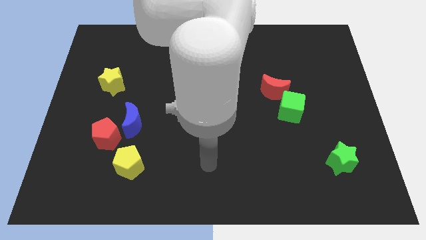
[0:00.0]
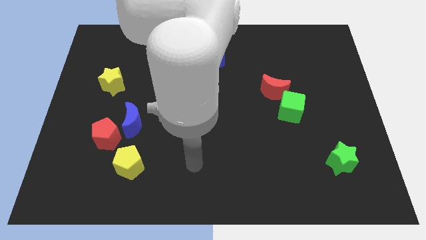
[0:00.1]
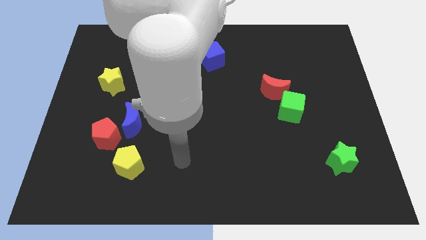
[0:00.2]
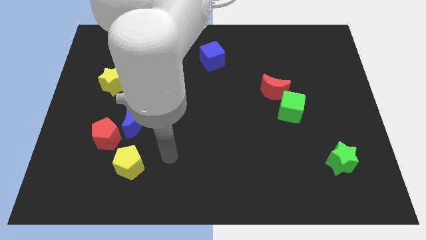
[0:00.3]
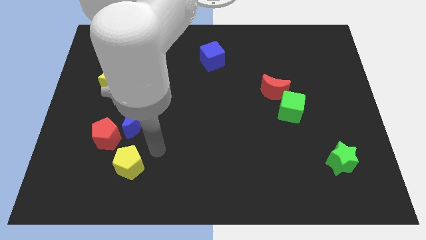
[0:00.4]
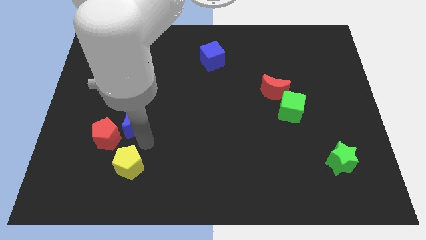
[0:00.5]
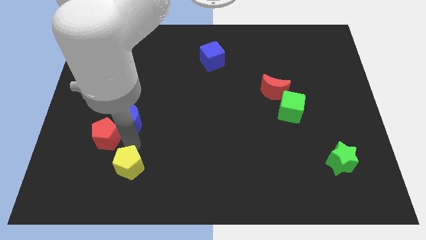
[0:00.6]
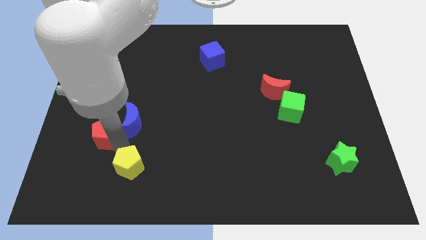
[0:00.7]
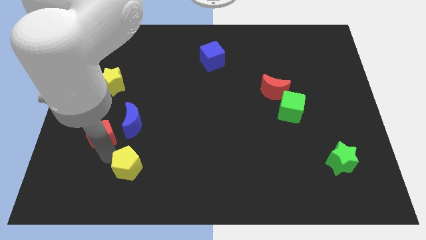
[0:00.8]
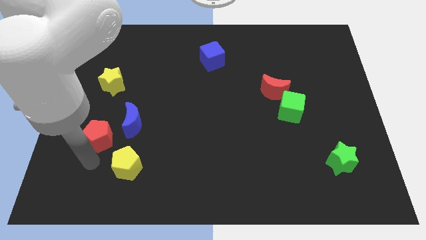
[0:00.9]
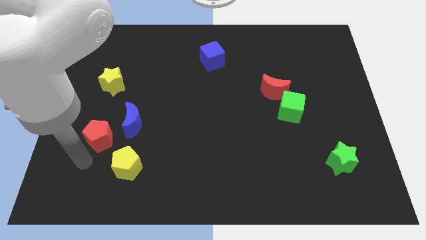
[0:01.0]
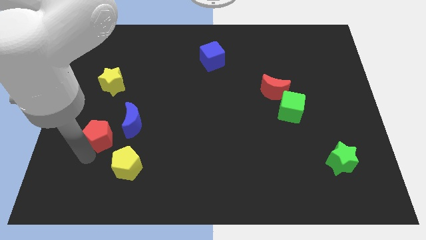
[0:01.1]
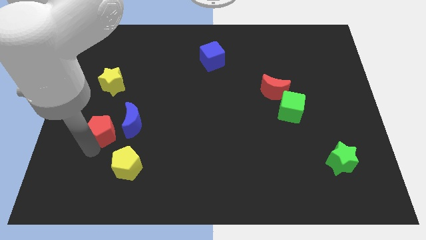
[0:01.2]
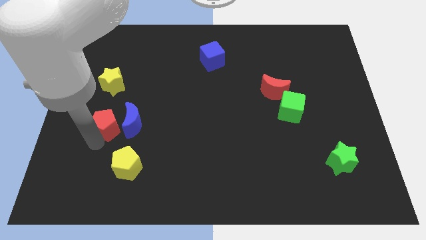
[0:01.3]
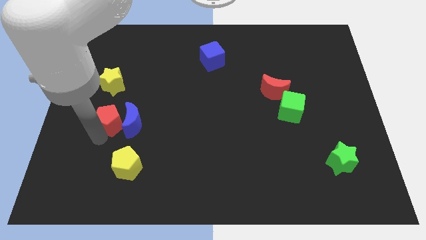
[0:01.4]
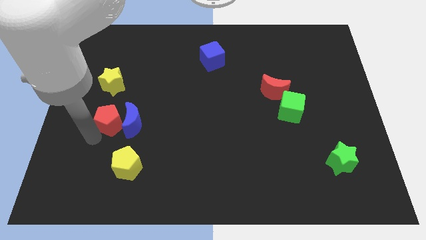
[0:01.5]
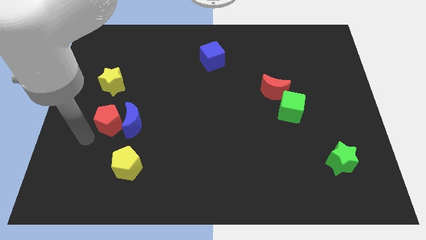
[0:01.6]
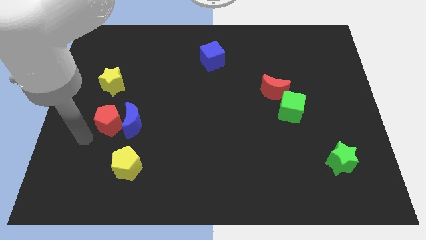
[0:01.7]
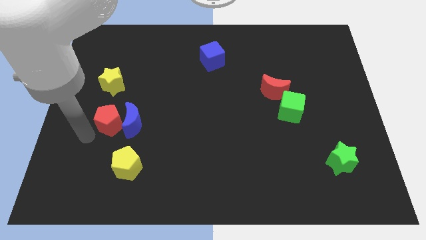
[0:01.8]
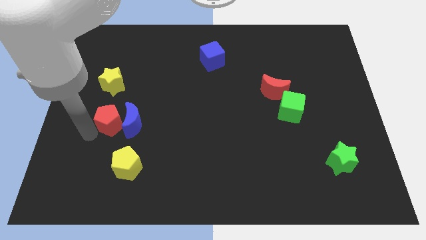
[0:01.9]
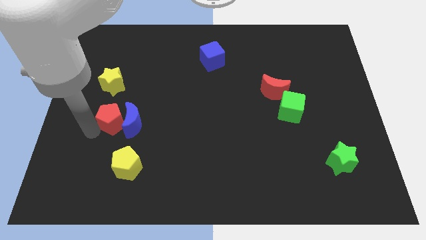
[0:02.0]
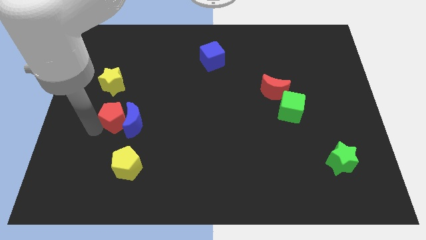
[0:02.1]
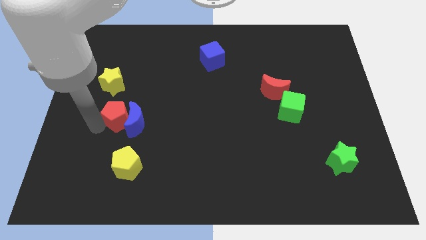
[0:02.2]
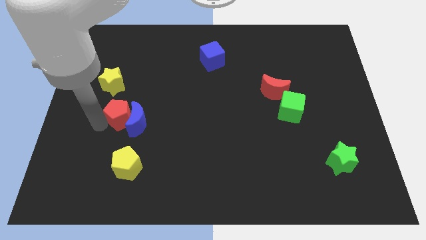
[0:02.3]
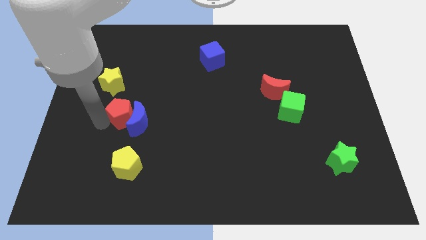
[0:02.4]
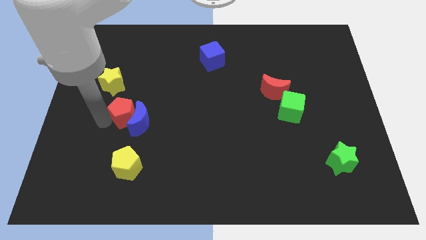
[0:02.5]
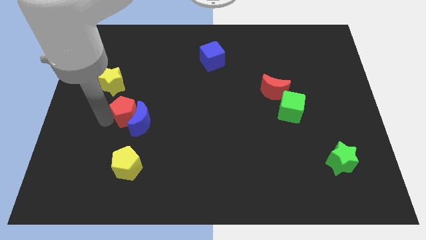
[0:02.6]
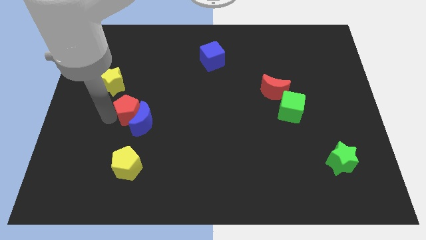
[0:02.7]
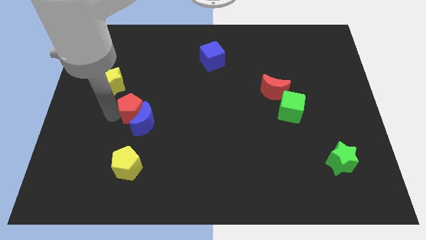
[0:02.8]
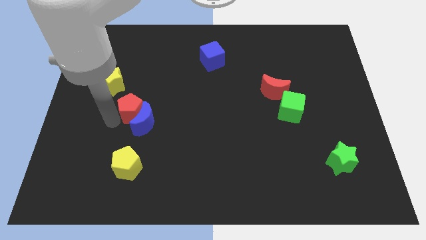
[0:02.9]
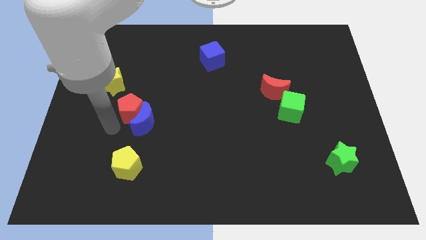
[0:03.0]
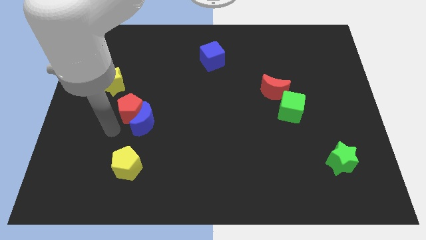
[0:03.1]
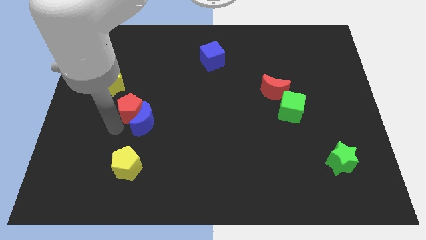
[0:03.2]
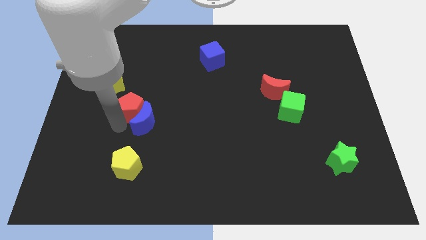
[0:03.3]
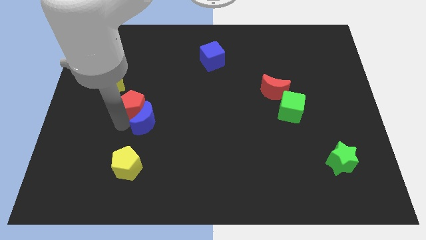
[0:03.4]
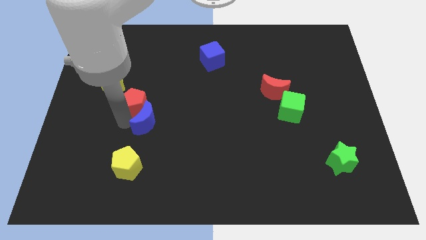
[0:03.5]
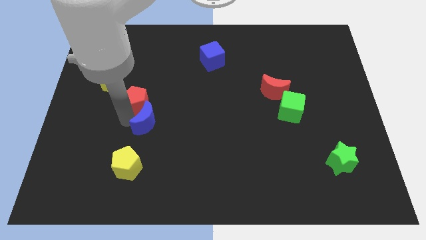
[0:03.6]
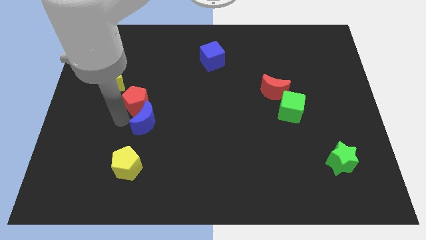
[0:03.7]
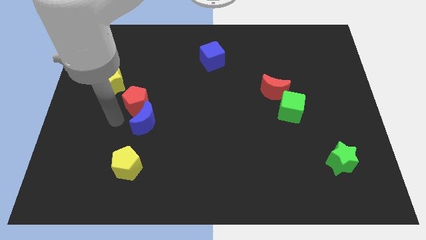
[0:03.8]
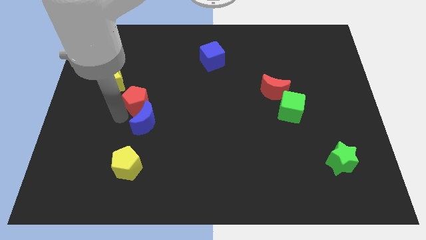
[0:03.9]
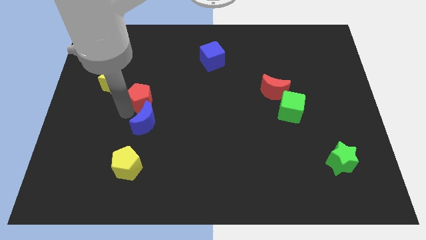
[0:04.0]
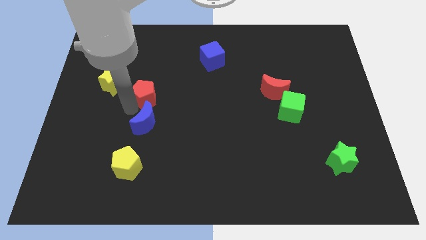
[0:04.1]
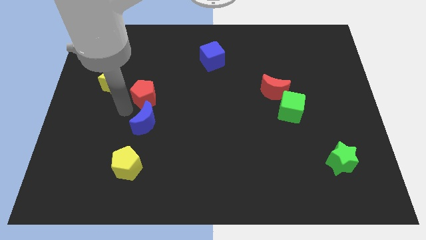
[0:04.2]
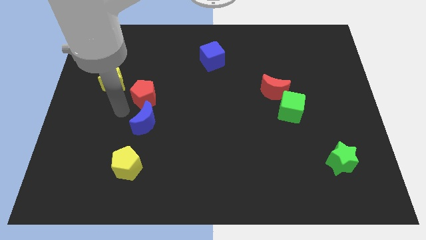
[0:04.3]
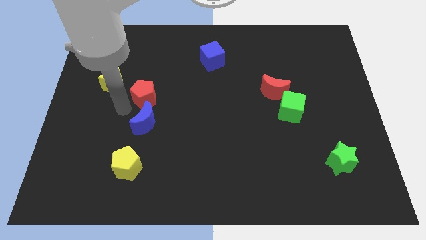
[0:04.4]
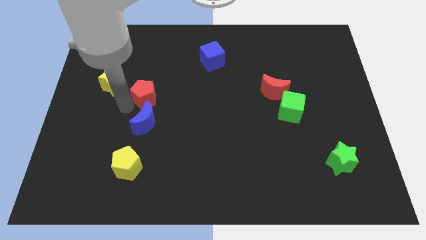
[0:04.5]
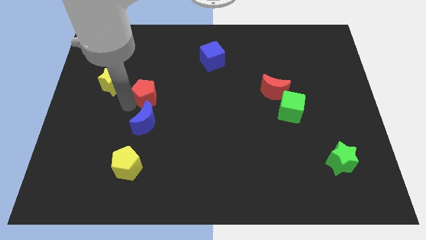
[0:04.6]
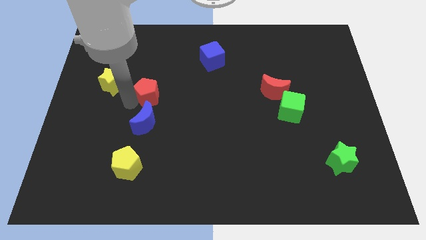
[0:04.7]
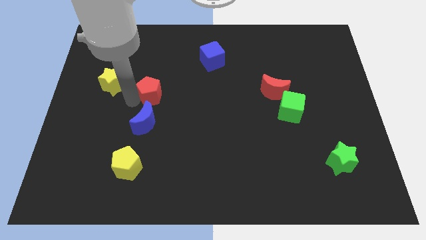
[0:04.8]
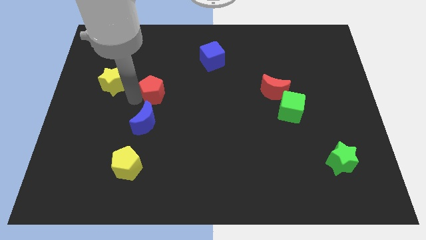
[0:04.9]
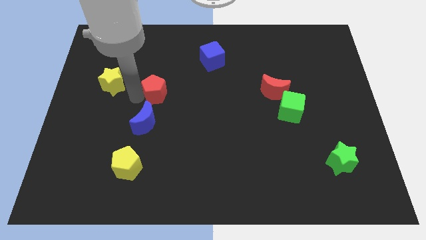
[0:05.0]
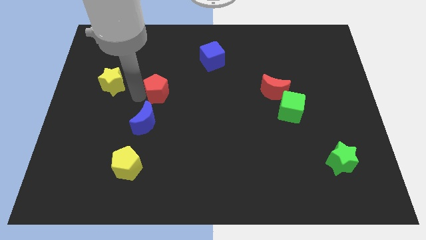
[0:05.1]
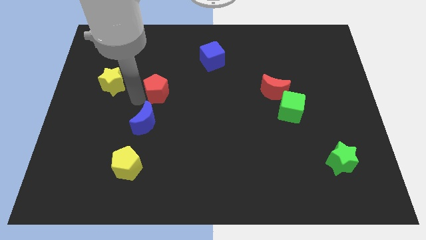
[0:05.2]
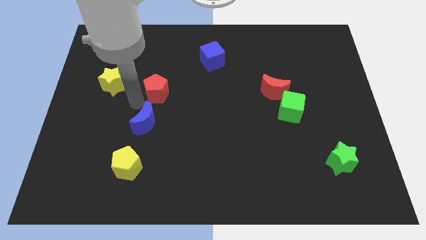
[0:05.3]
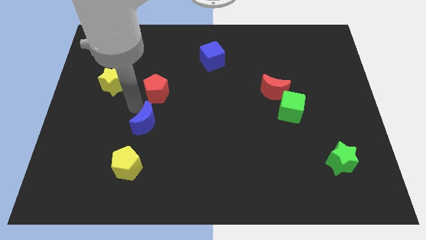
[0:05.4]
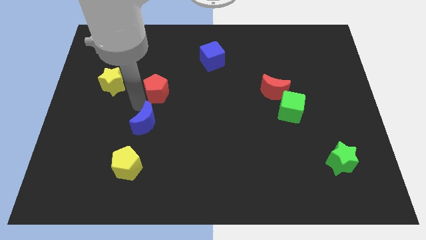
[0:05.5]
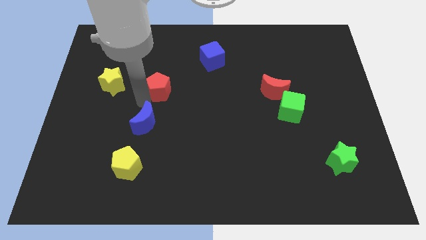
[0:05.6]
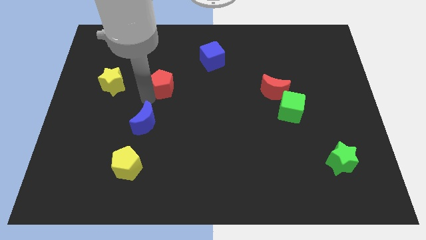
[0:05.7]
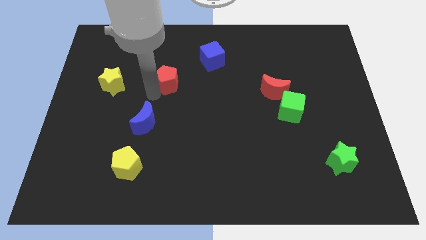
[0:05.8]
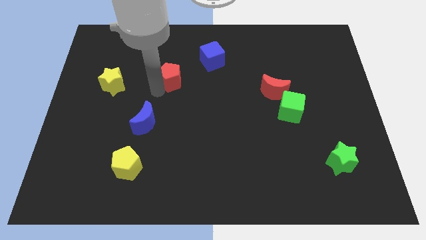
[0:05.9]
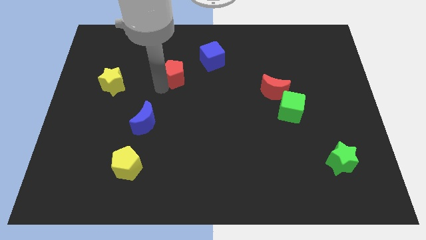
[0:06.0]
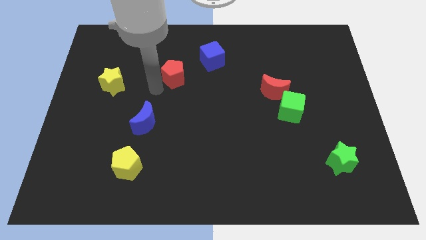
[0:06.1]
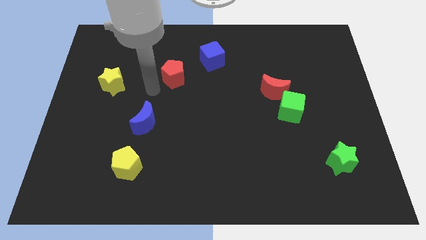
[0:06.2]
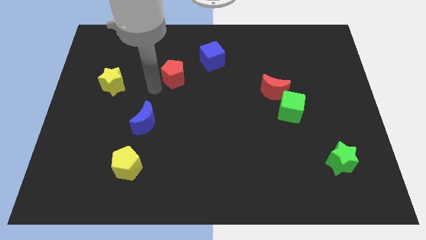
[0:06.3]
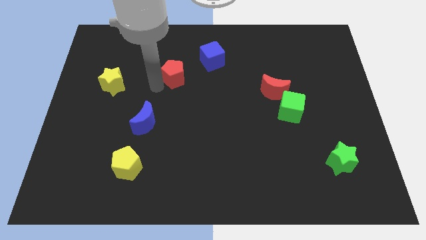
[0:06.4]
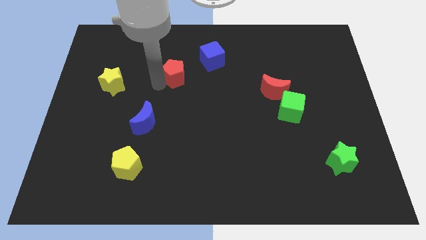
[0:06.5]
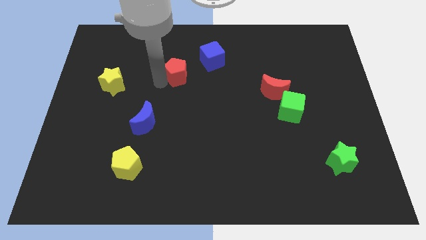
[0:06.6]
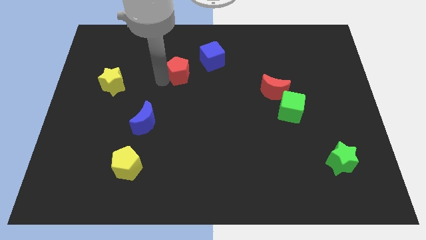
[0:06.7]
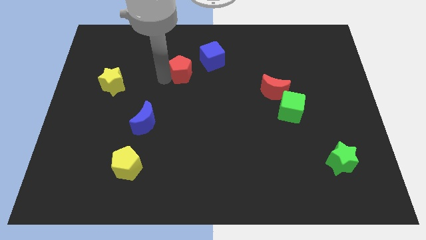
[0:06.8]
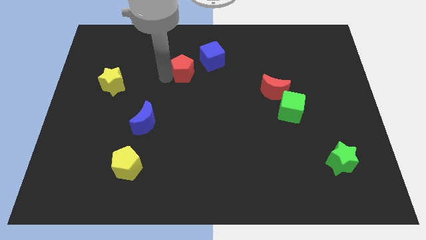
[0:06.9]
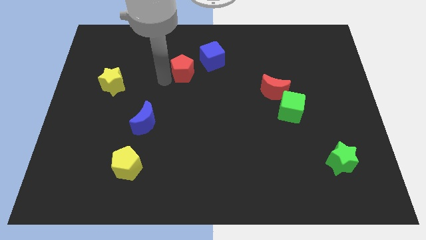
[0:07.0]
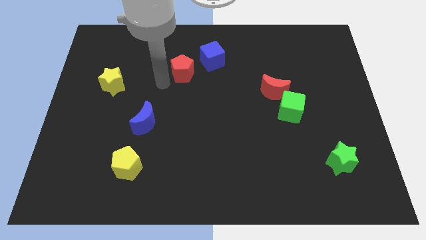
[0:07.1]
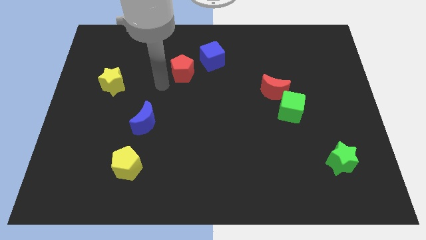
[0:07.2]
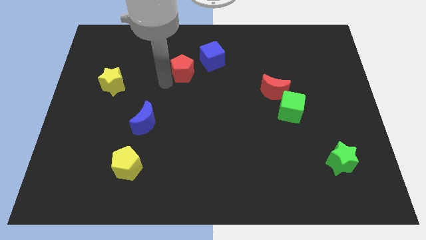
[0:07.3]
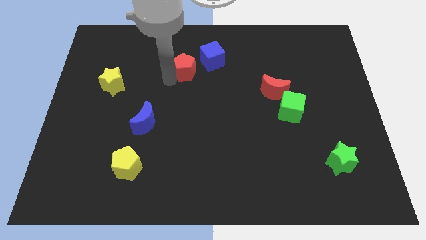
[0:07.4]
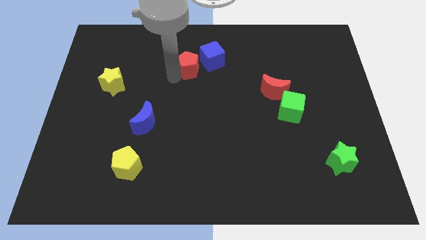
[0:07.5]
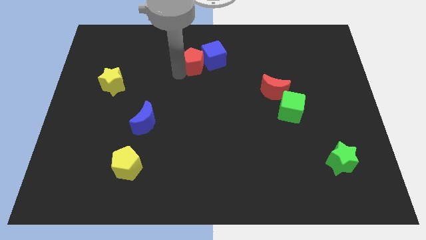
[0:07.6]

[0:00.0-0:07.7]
push the red pentagon towards the blue cube
